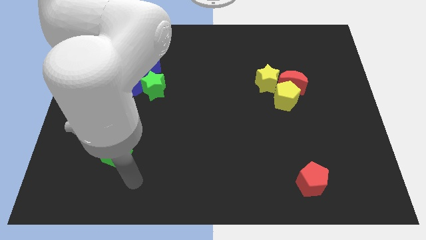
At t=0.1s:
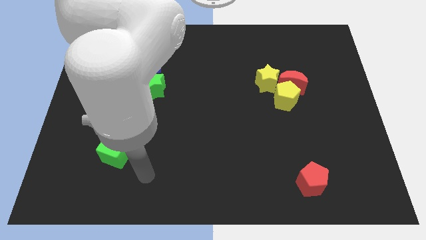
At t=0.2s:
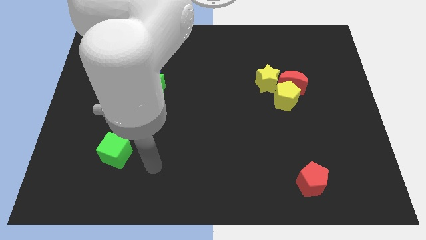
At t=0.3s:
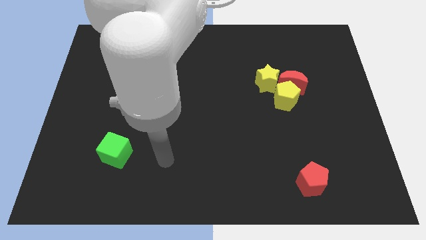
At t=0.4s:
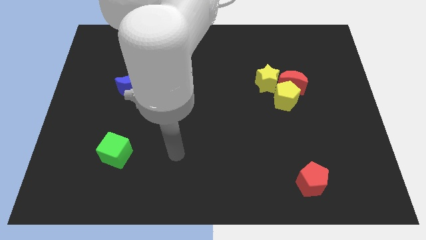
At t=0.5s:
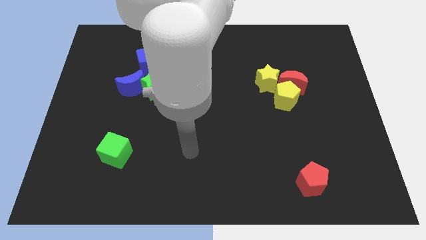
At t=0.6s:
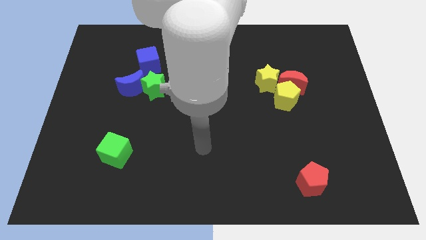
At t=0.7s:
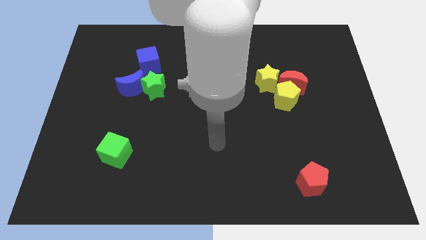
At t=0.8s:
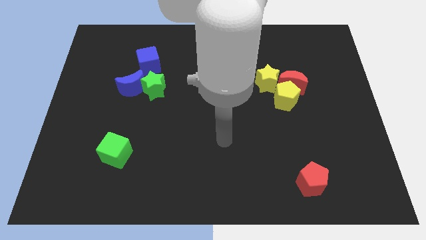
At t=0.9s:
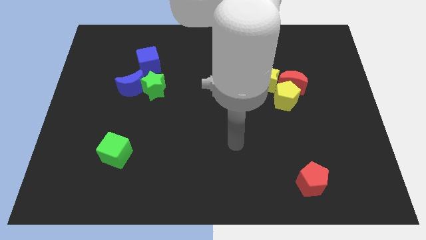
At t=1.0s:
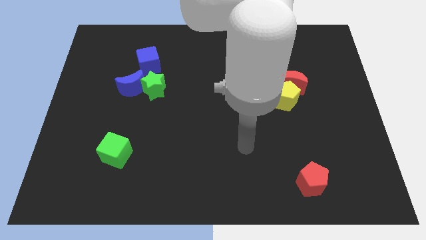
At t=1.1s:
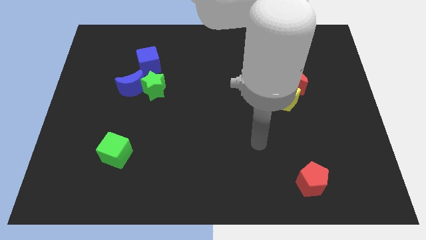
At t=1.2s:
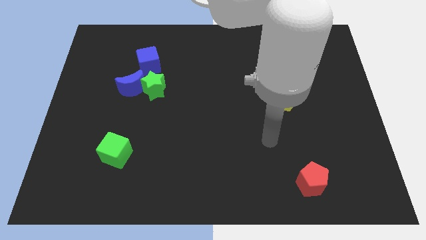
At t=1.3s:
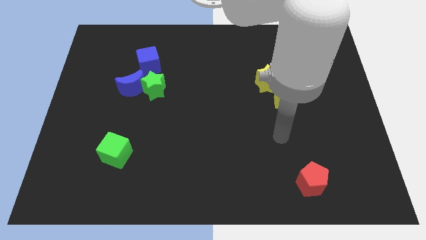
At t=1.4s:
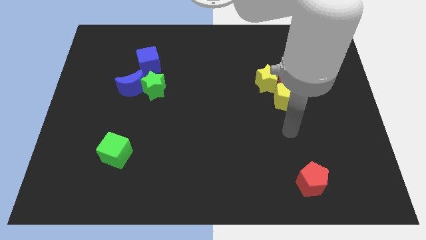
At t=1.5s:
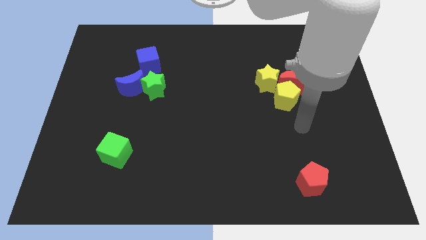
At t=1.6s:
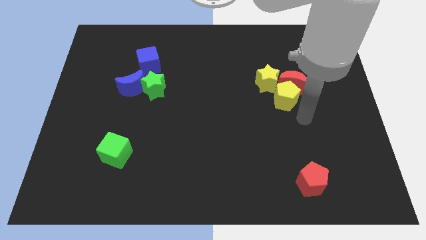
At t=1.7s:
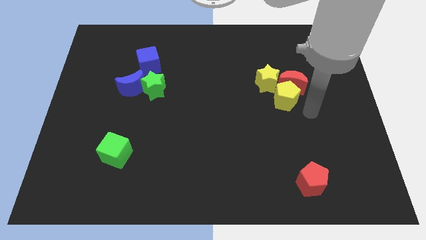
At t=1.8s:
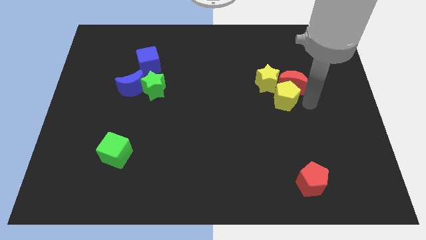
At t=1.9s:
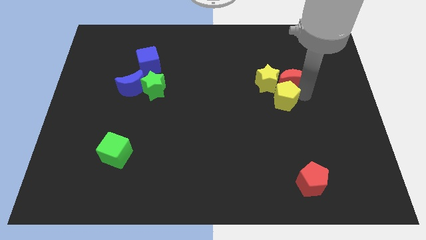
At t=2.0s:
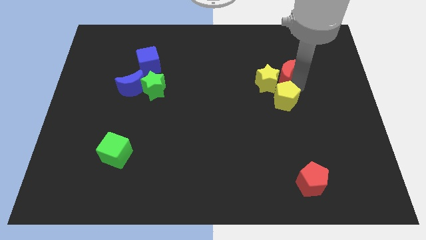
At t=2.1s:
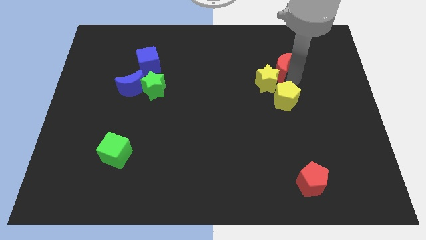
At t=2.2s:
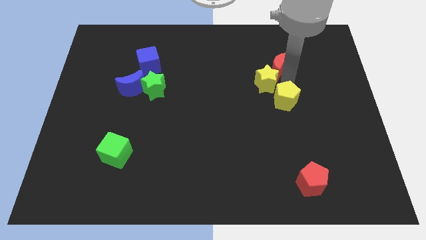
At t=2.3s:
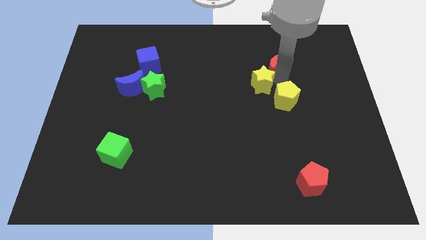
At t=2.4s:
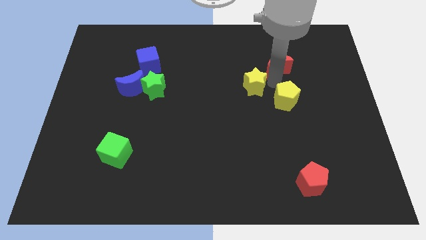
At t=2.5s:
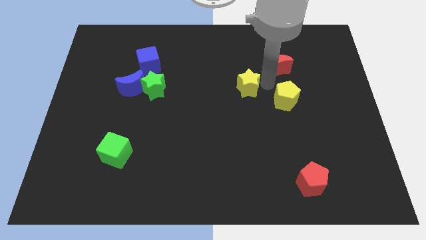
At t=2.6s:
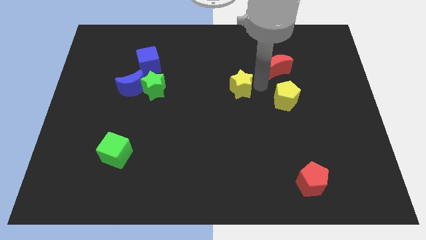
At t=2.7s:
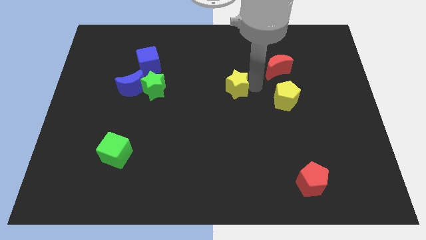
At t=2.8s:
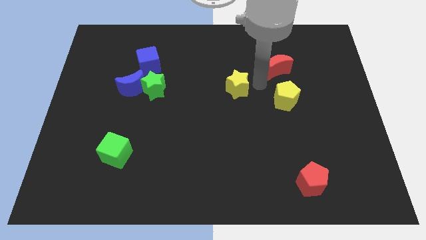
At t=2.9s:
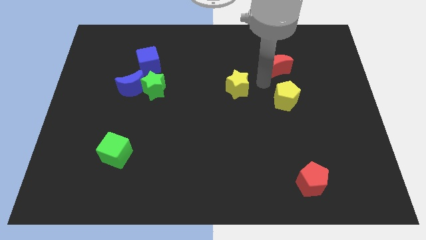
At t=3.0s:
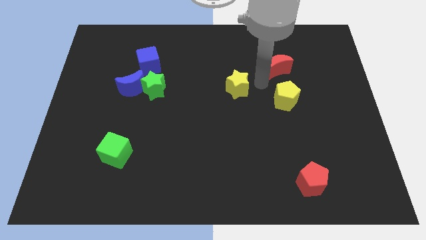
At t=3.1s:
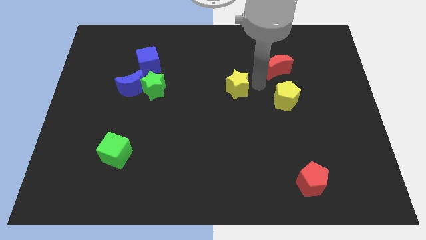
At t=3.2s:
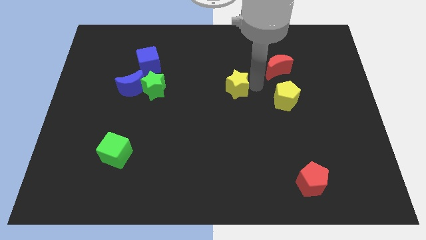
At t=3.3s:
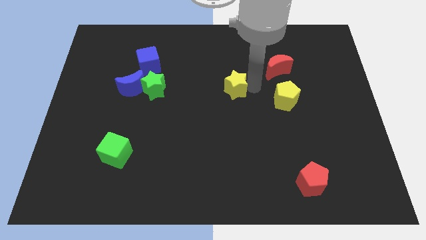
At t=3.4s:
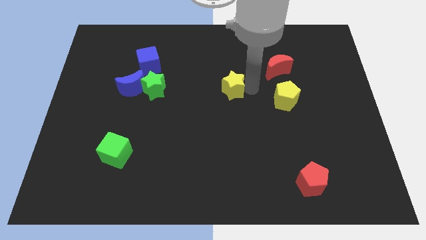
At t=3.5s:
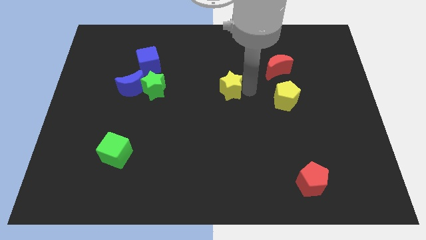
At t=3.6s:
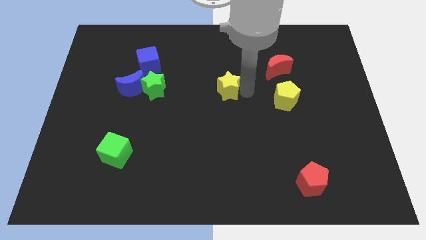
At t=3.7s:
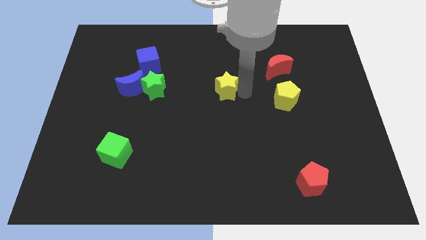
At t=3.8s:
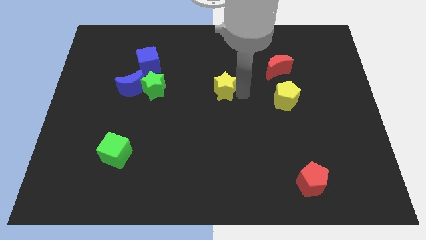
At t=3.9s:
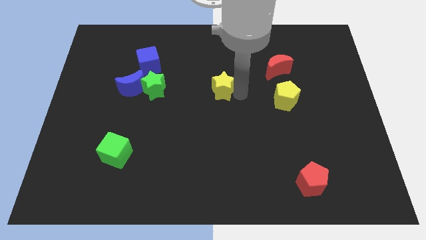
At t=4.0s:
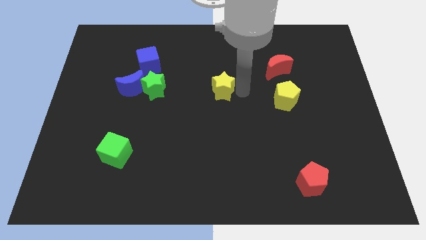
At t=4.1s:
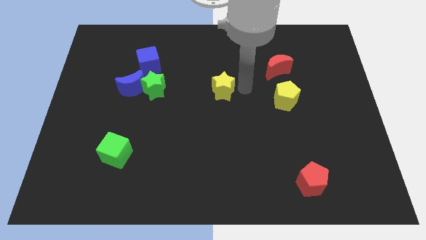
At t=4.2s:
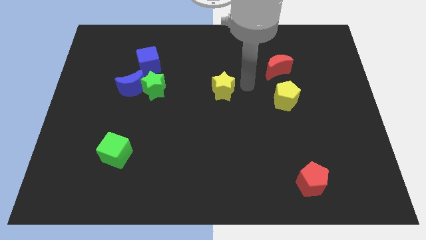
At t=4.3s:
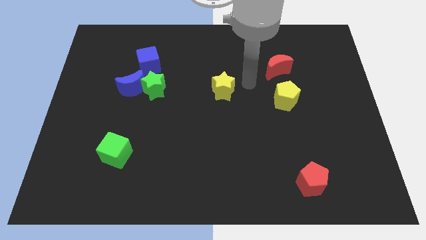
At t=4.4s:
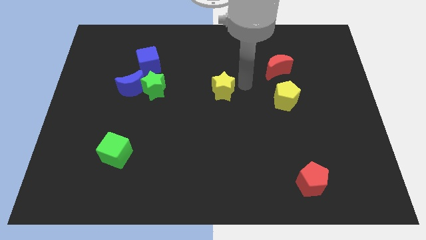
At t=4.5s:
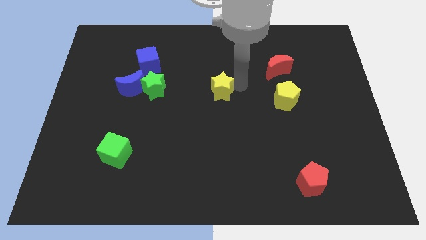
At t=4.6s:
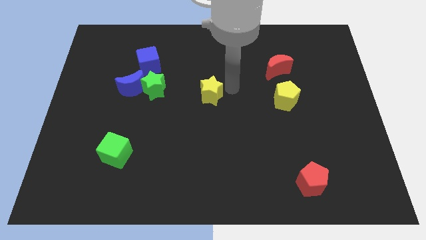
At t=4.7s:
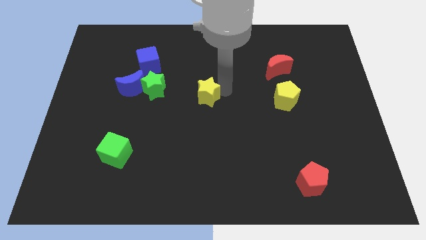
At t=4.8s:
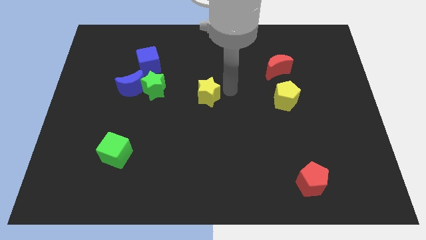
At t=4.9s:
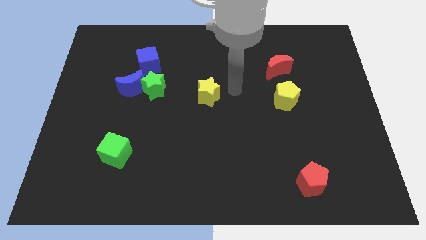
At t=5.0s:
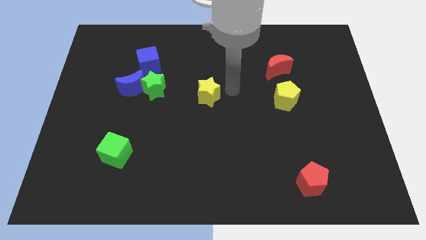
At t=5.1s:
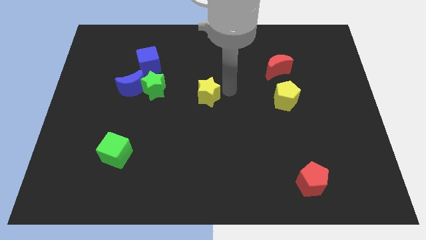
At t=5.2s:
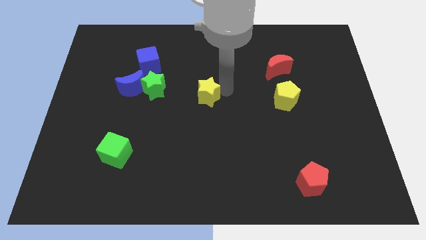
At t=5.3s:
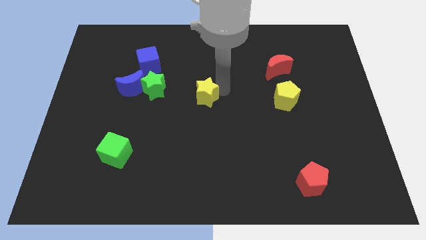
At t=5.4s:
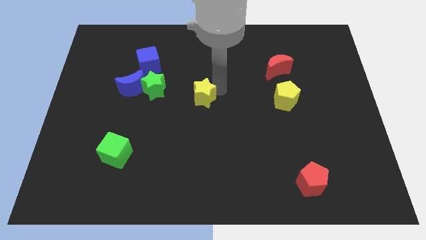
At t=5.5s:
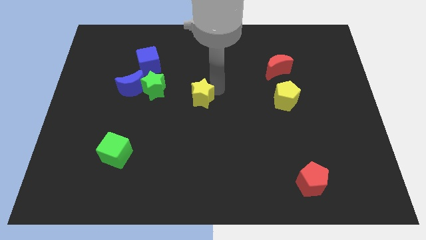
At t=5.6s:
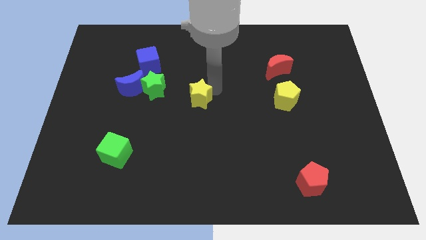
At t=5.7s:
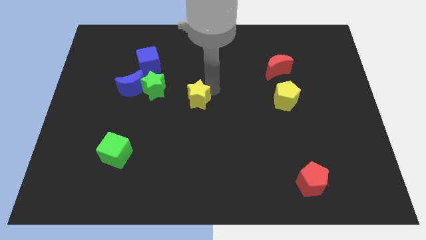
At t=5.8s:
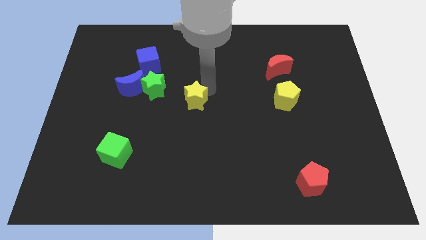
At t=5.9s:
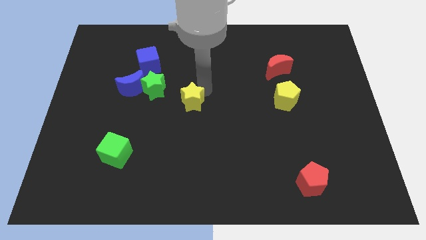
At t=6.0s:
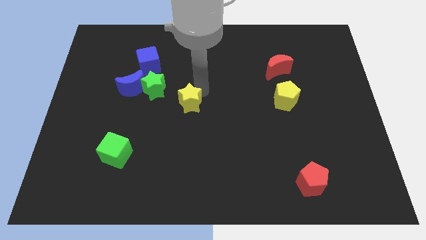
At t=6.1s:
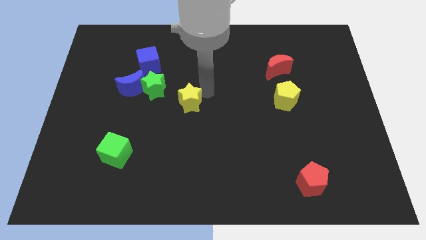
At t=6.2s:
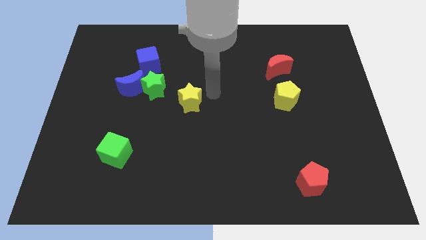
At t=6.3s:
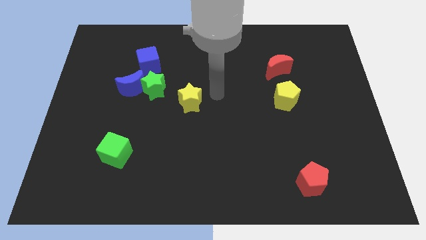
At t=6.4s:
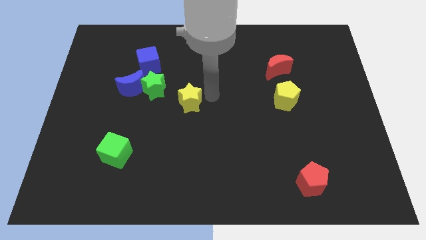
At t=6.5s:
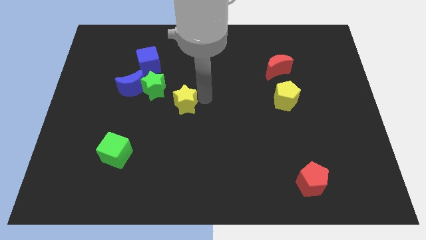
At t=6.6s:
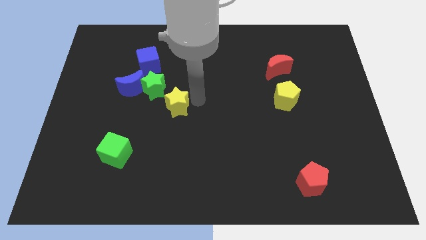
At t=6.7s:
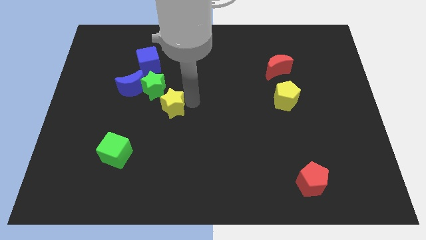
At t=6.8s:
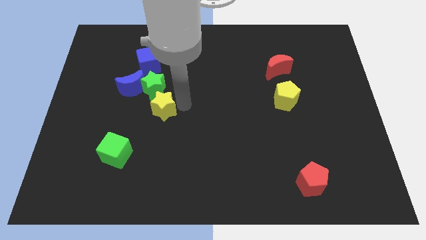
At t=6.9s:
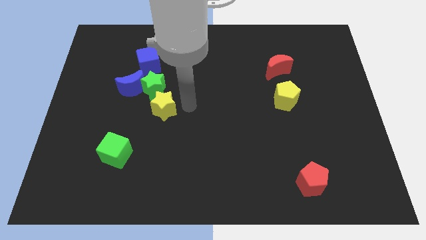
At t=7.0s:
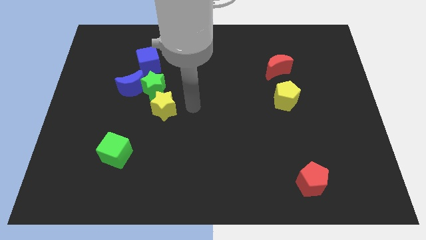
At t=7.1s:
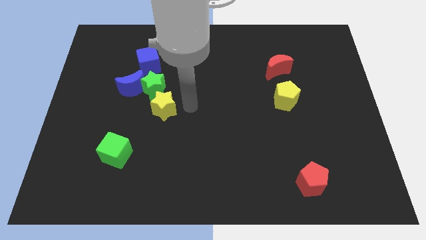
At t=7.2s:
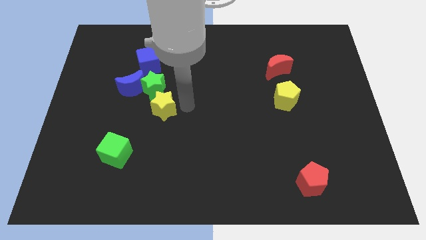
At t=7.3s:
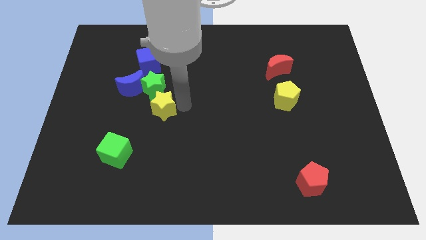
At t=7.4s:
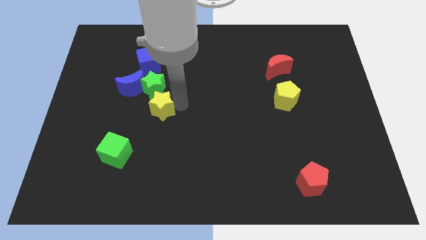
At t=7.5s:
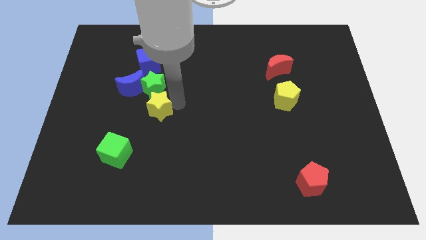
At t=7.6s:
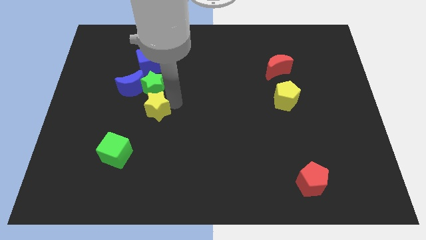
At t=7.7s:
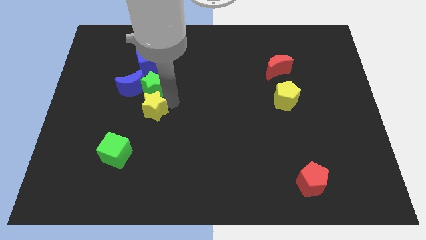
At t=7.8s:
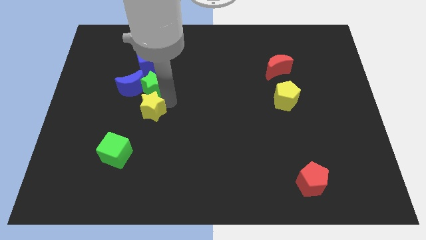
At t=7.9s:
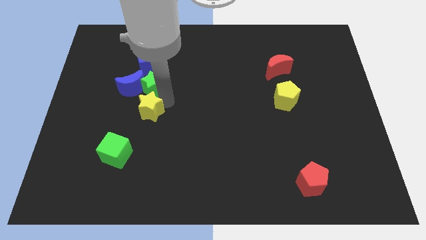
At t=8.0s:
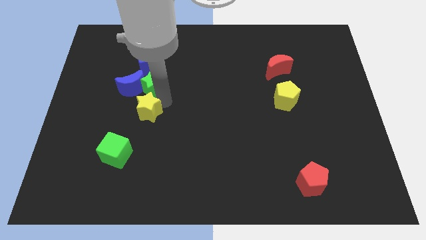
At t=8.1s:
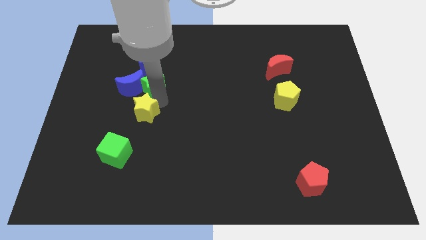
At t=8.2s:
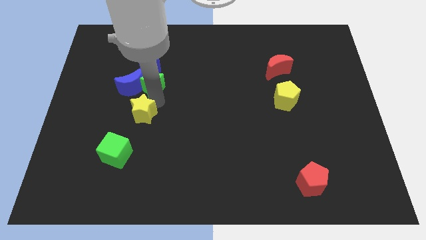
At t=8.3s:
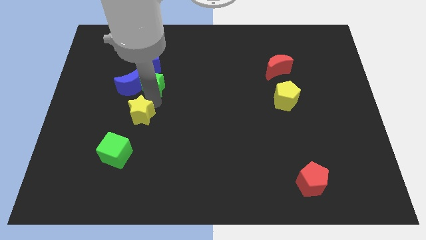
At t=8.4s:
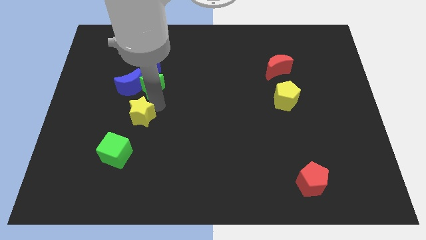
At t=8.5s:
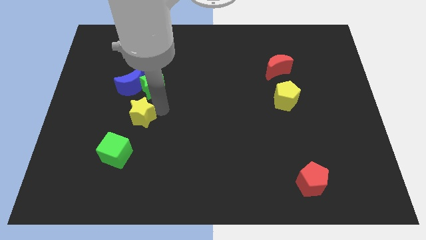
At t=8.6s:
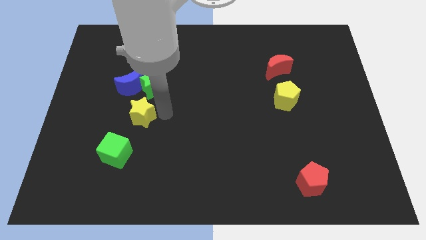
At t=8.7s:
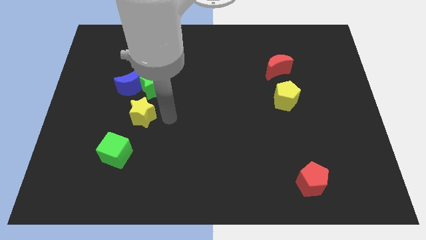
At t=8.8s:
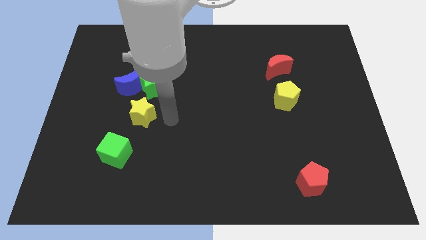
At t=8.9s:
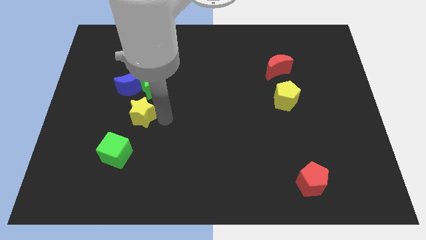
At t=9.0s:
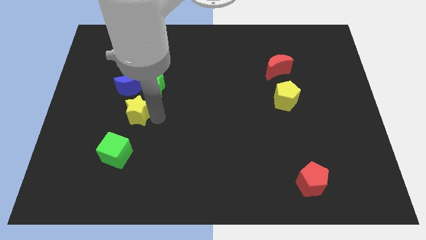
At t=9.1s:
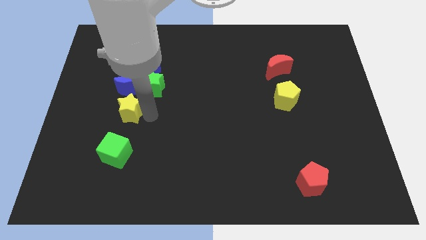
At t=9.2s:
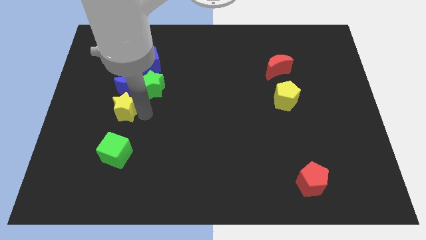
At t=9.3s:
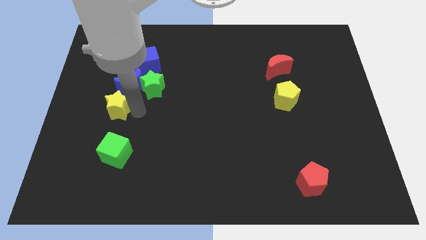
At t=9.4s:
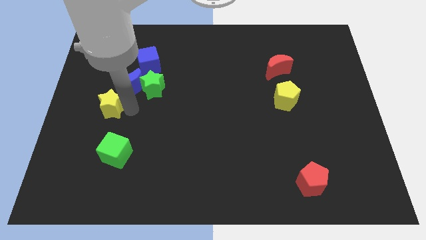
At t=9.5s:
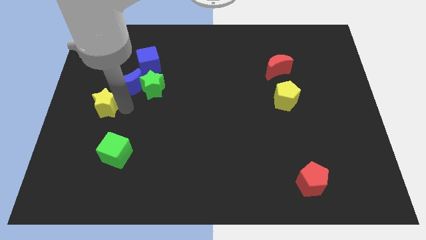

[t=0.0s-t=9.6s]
push the yellow star to the left side
